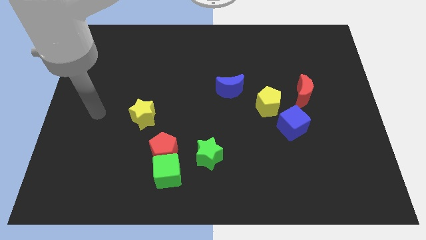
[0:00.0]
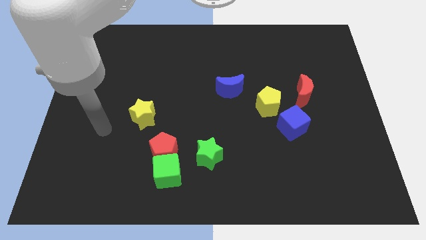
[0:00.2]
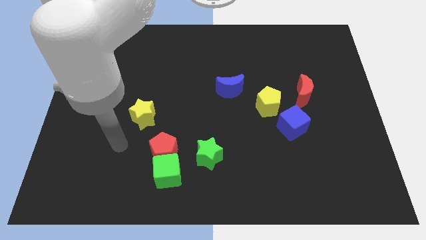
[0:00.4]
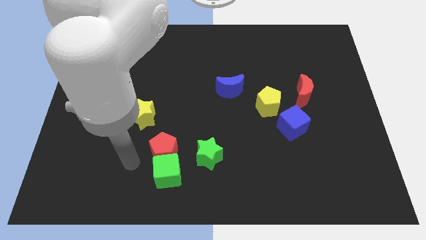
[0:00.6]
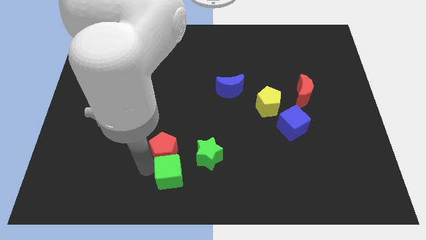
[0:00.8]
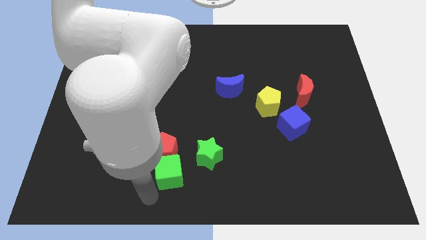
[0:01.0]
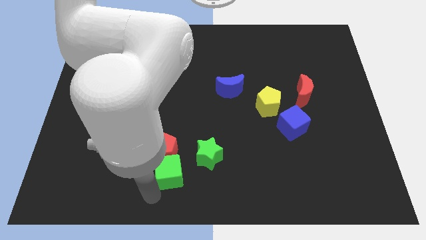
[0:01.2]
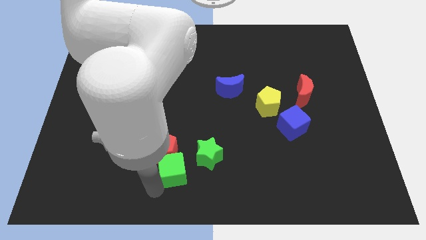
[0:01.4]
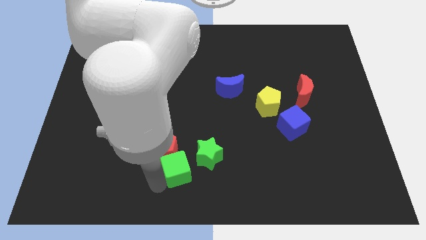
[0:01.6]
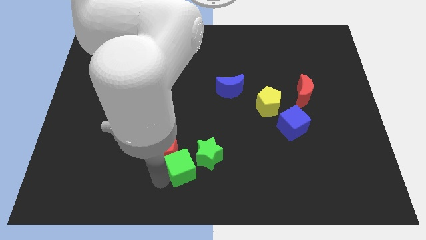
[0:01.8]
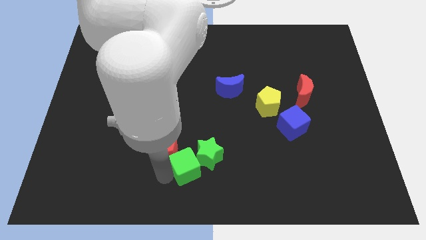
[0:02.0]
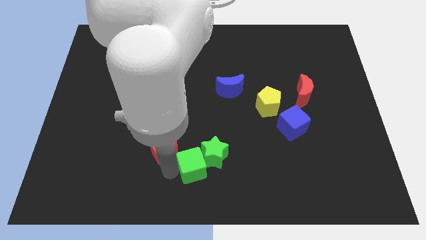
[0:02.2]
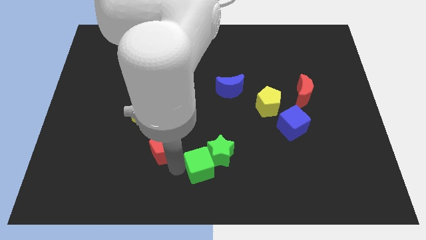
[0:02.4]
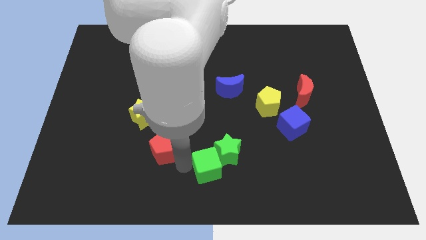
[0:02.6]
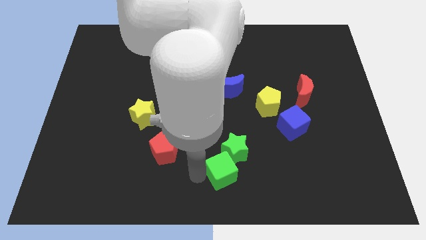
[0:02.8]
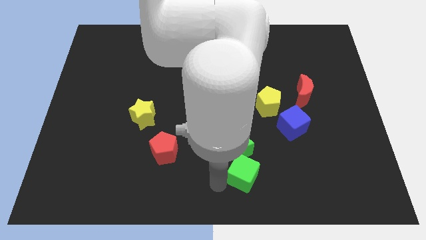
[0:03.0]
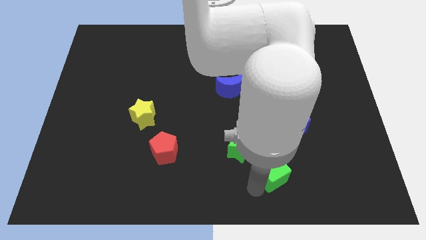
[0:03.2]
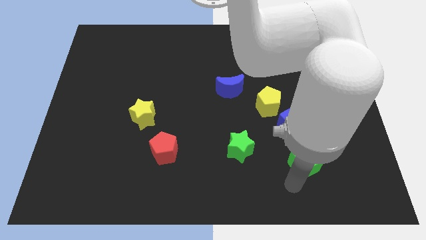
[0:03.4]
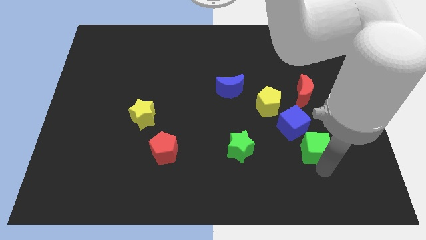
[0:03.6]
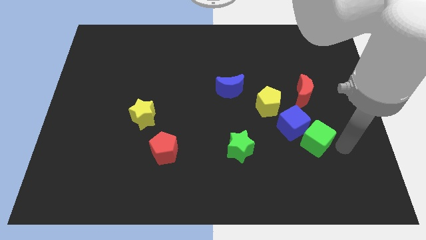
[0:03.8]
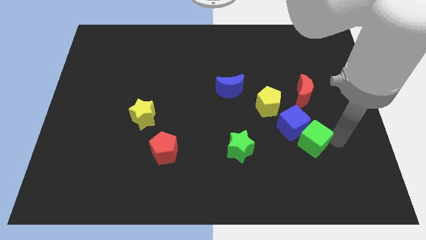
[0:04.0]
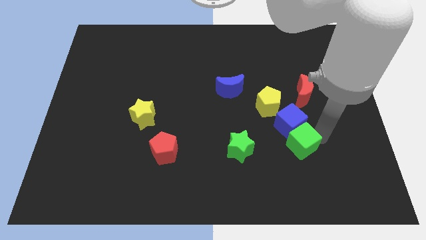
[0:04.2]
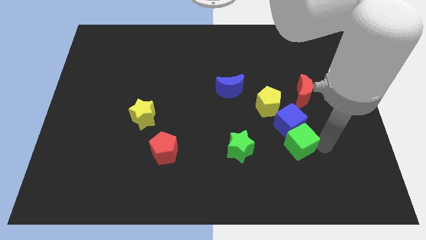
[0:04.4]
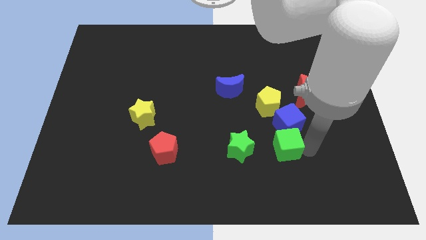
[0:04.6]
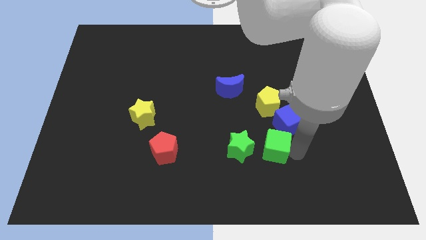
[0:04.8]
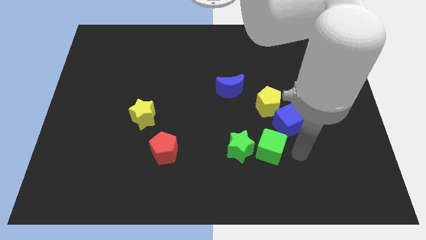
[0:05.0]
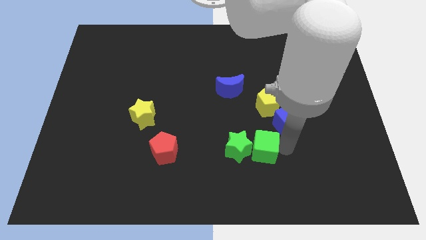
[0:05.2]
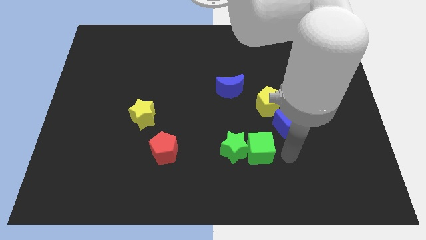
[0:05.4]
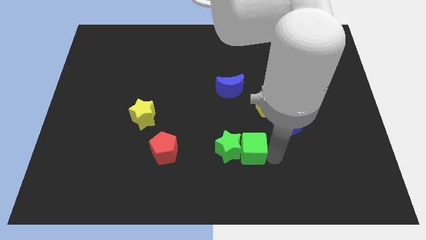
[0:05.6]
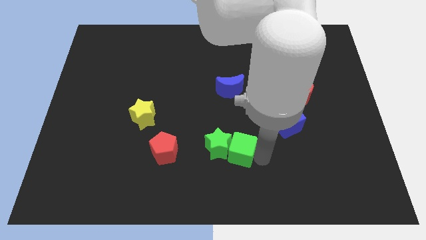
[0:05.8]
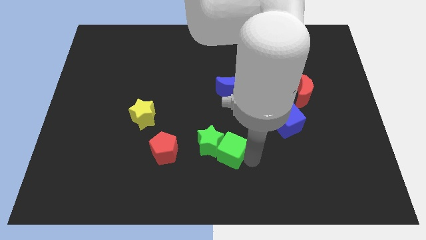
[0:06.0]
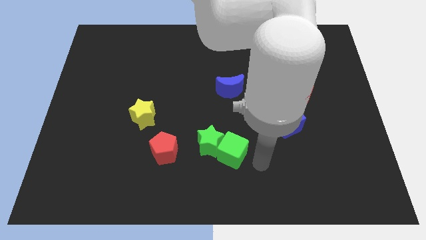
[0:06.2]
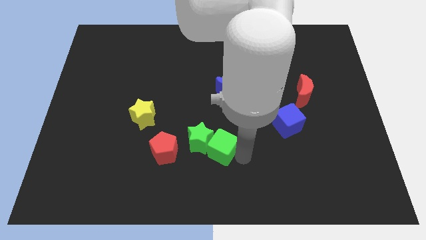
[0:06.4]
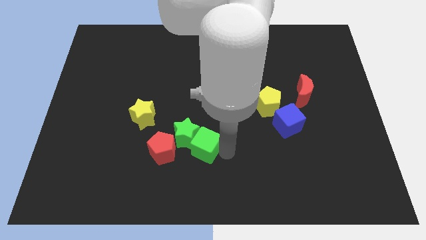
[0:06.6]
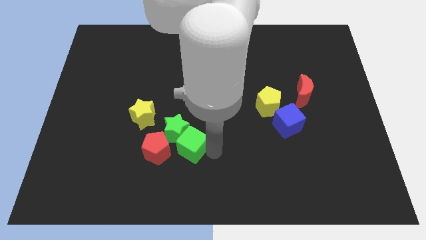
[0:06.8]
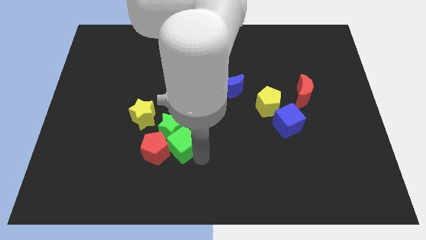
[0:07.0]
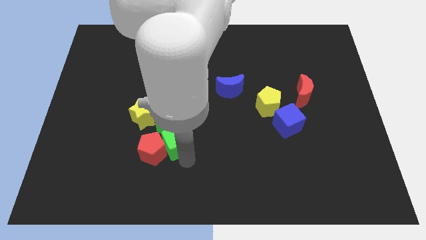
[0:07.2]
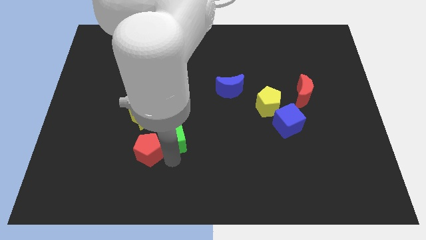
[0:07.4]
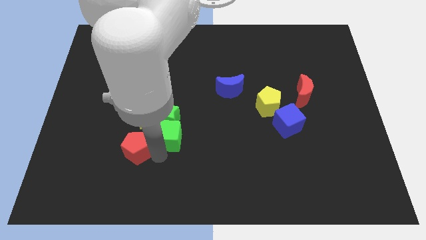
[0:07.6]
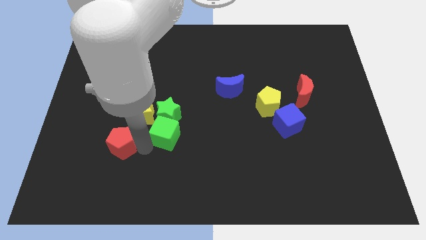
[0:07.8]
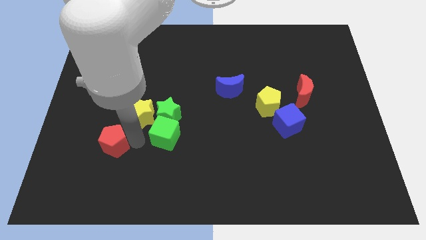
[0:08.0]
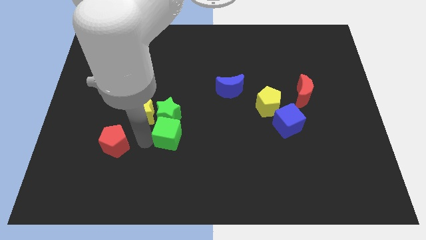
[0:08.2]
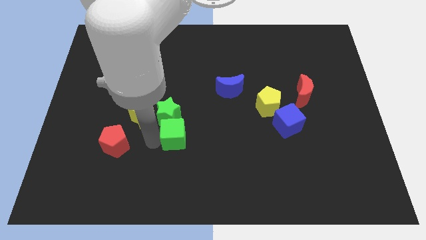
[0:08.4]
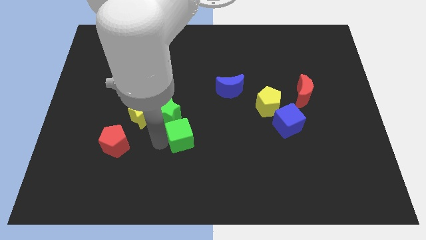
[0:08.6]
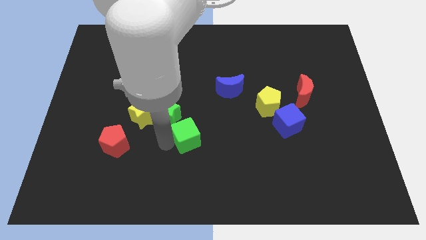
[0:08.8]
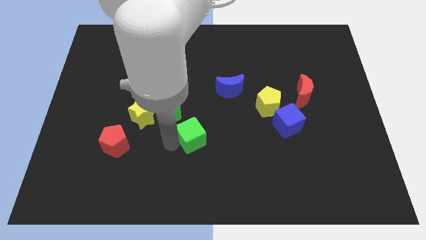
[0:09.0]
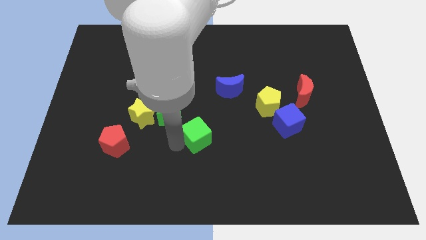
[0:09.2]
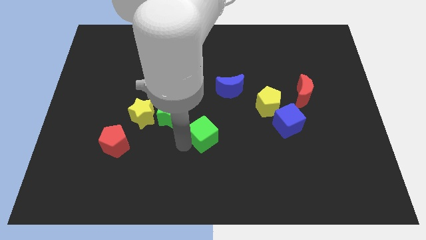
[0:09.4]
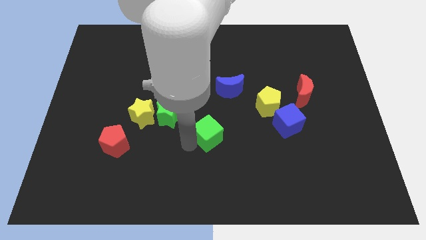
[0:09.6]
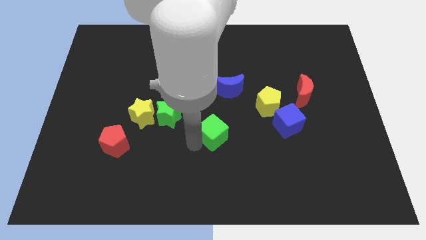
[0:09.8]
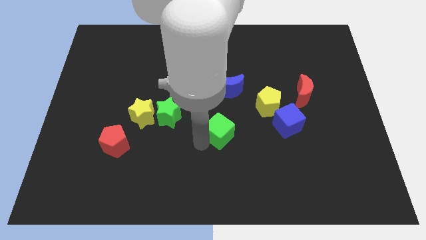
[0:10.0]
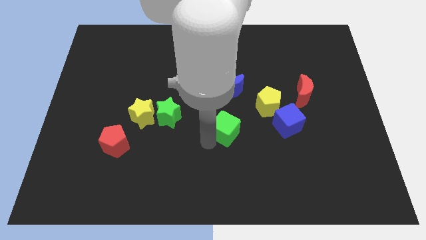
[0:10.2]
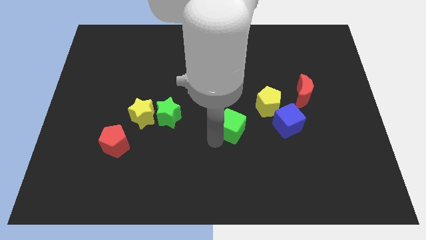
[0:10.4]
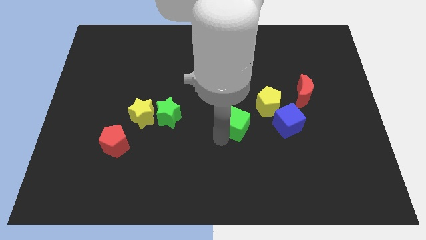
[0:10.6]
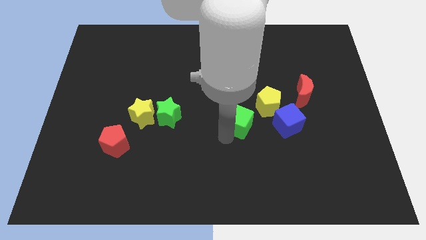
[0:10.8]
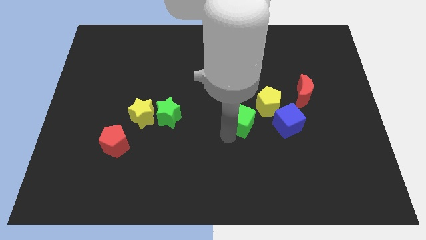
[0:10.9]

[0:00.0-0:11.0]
slide the green cube upwards and then right

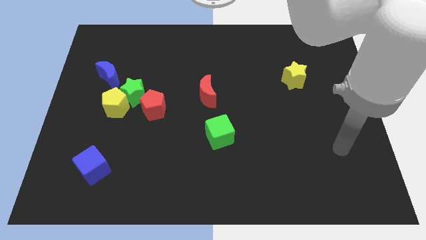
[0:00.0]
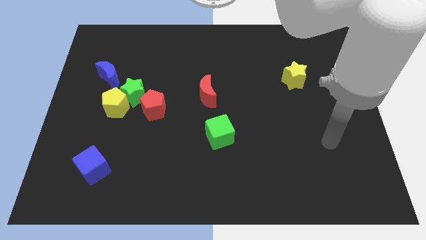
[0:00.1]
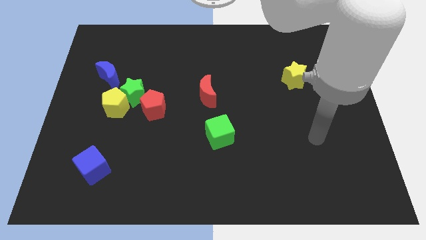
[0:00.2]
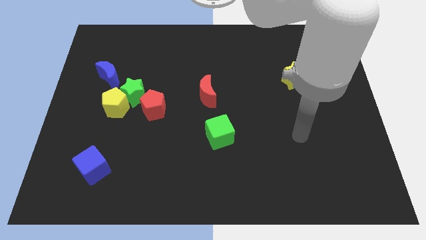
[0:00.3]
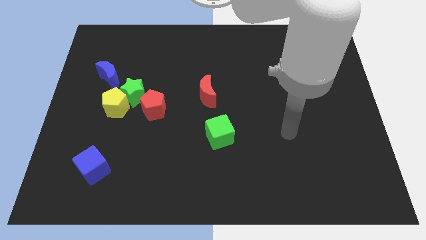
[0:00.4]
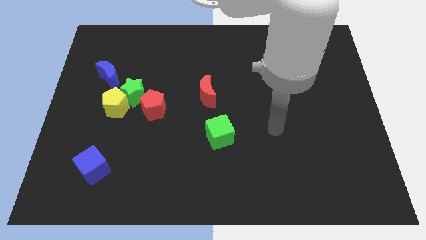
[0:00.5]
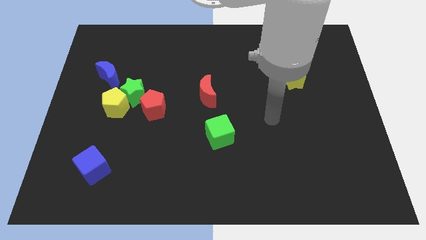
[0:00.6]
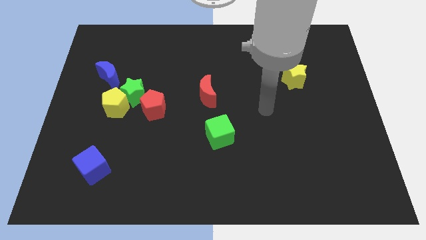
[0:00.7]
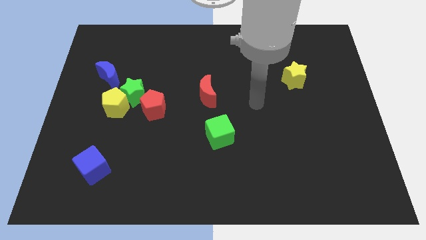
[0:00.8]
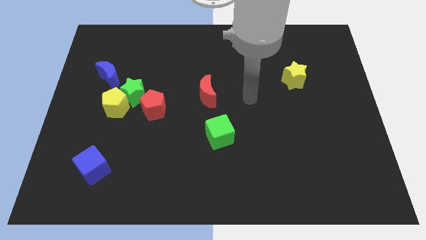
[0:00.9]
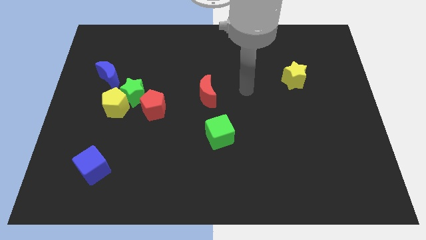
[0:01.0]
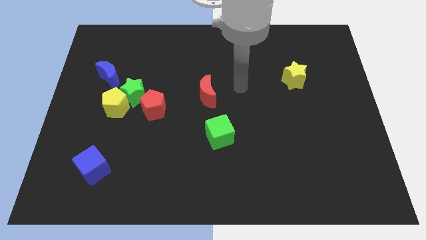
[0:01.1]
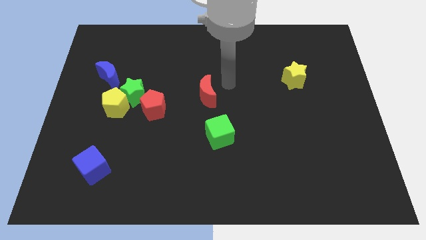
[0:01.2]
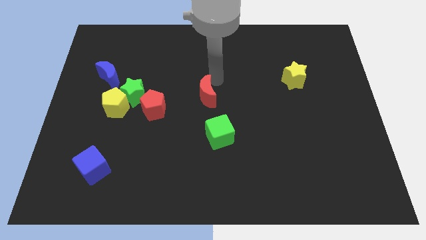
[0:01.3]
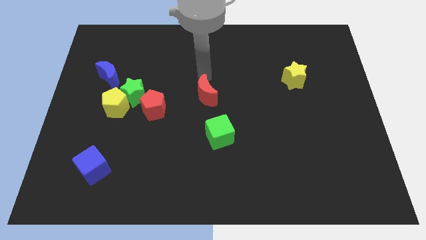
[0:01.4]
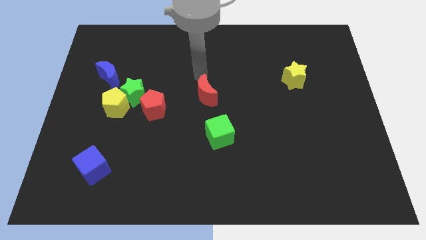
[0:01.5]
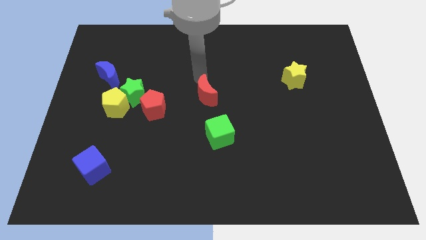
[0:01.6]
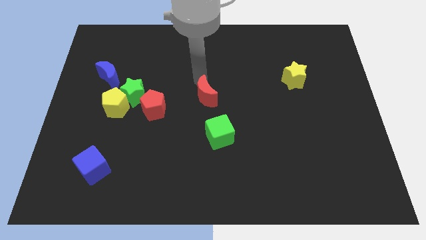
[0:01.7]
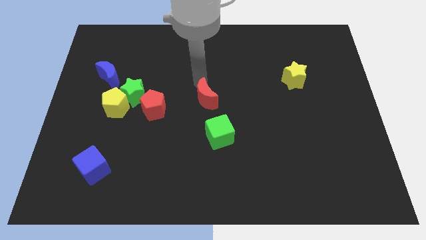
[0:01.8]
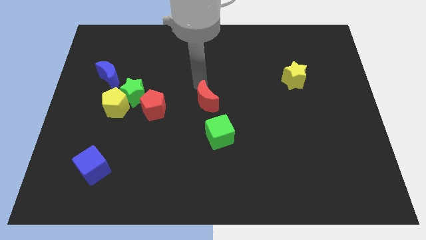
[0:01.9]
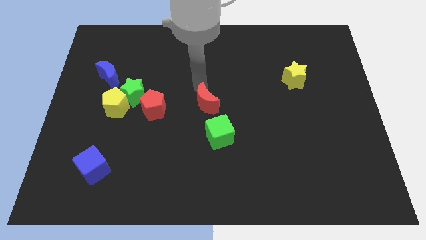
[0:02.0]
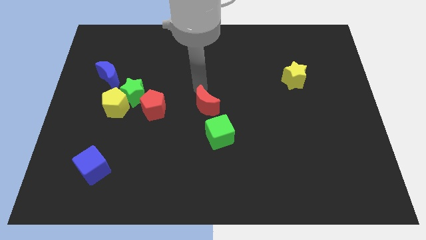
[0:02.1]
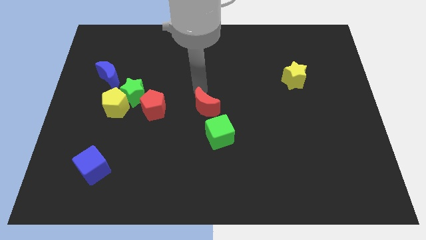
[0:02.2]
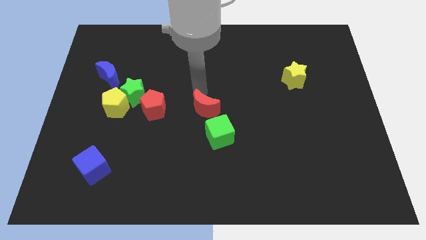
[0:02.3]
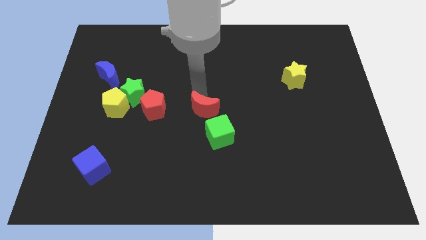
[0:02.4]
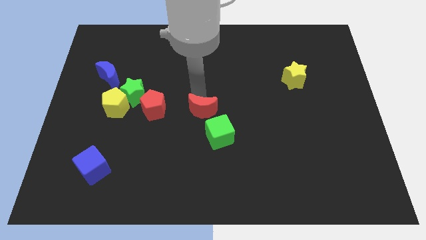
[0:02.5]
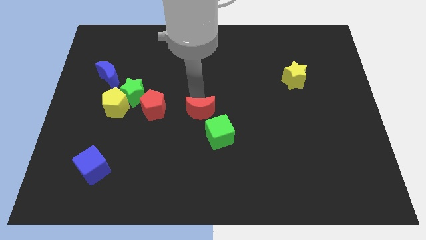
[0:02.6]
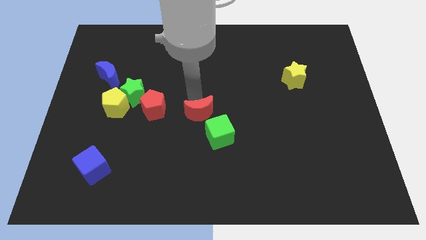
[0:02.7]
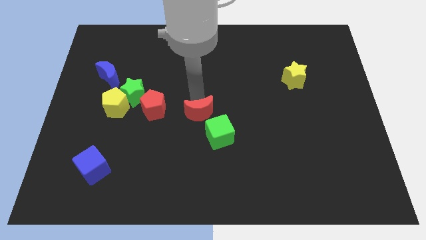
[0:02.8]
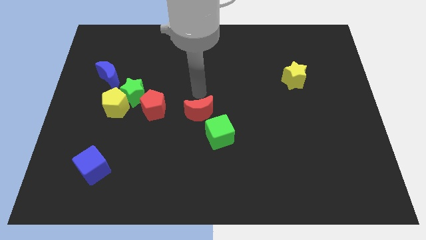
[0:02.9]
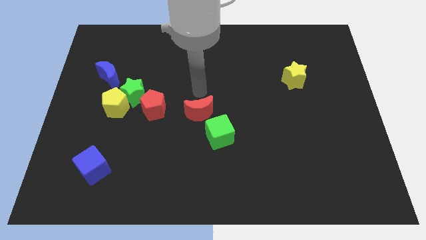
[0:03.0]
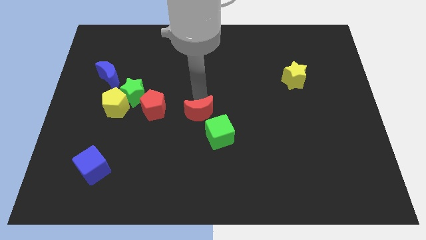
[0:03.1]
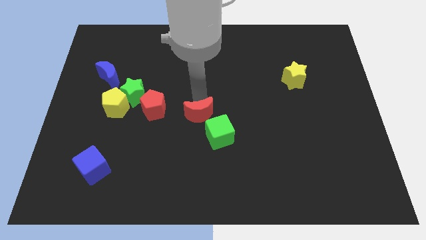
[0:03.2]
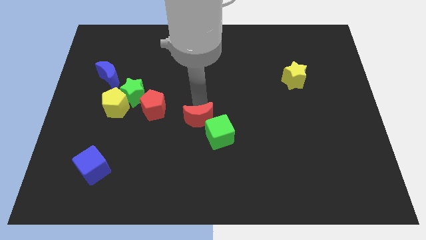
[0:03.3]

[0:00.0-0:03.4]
slide the red moon downwards somewhat
